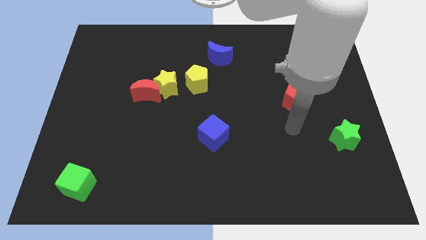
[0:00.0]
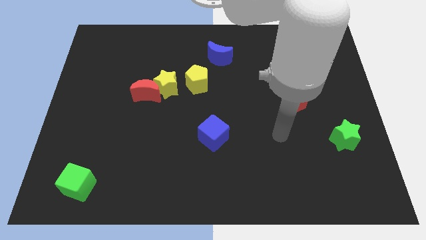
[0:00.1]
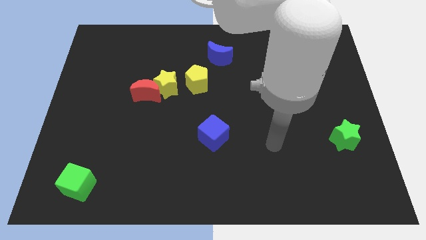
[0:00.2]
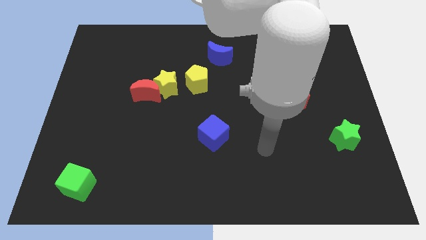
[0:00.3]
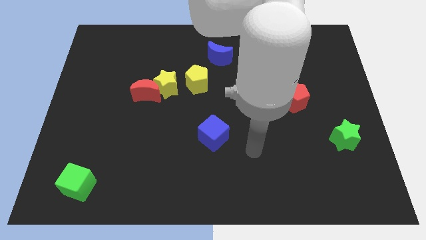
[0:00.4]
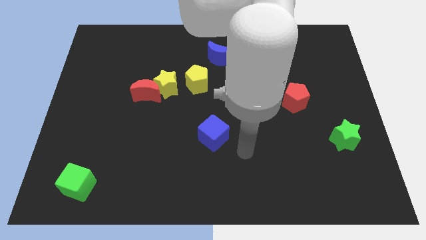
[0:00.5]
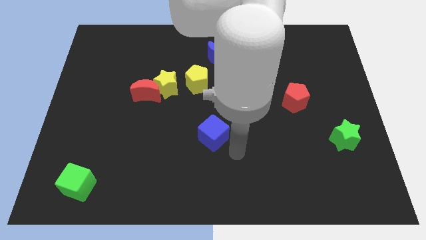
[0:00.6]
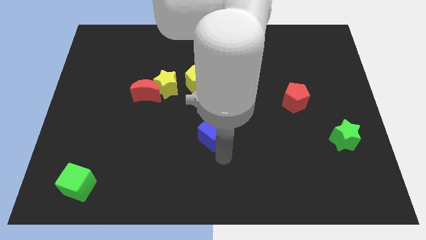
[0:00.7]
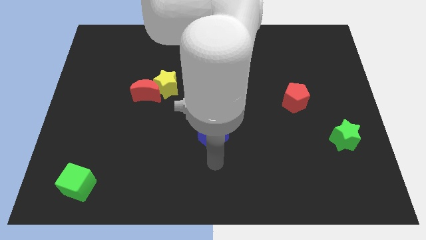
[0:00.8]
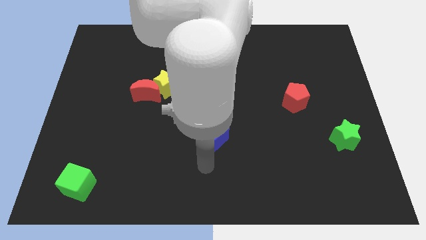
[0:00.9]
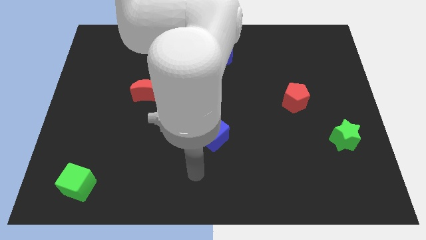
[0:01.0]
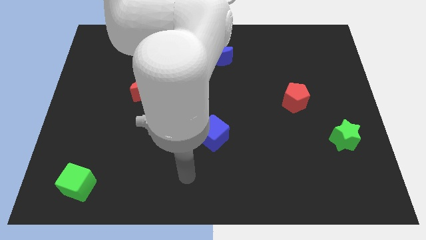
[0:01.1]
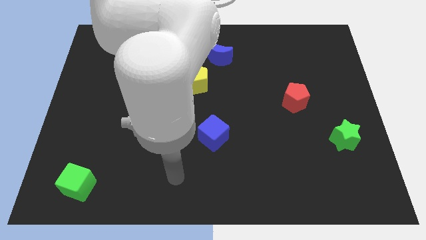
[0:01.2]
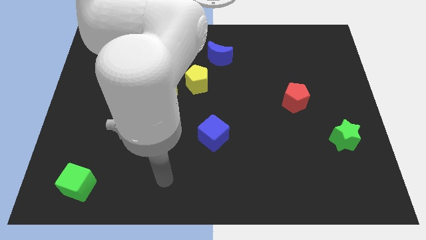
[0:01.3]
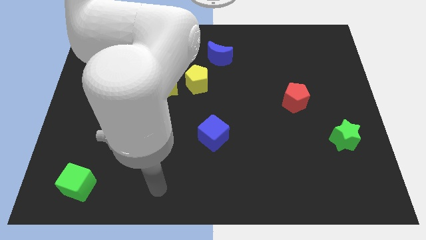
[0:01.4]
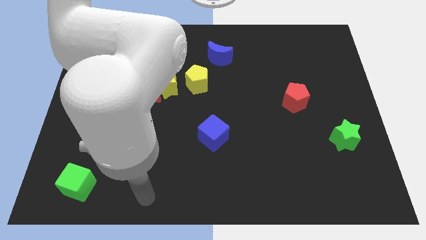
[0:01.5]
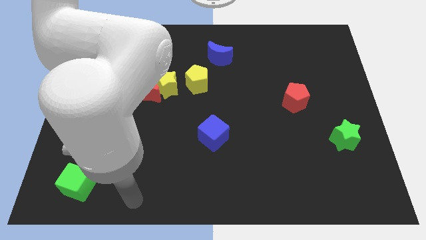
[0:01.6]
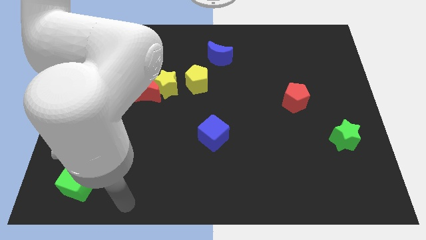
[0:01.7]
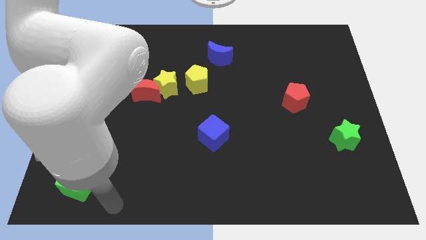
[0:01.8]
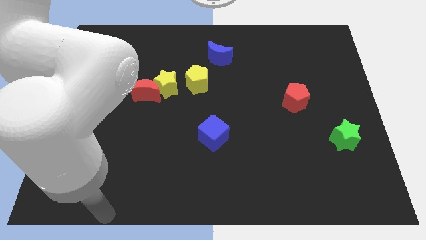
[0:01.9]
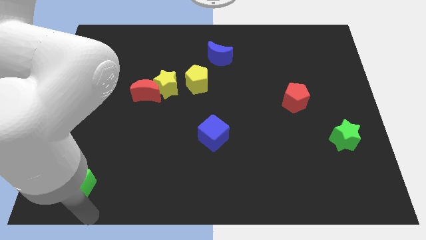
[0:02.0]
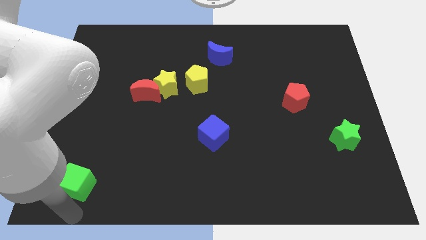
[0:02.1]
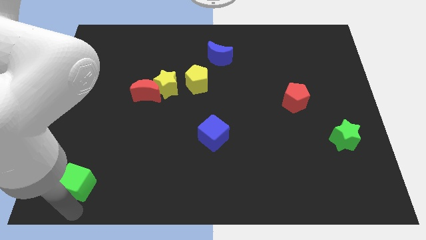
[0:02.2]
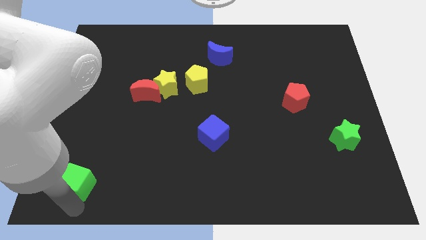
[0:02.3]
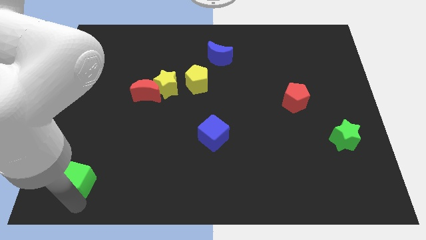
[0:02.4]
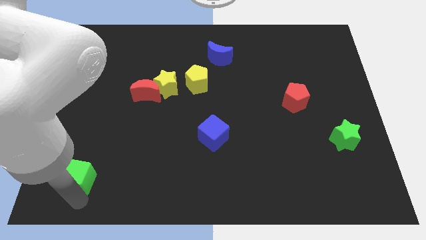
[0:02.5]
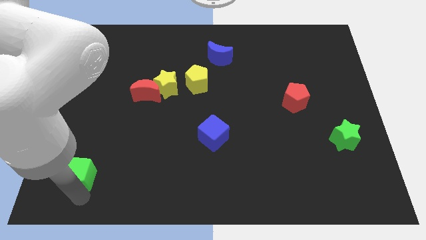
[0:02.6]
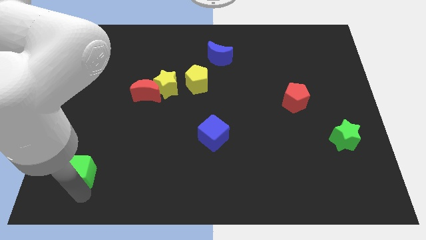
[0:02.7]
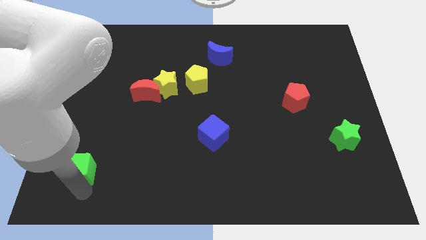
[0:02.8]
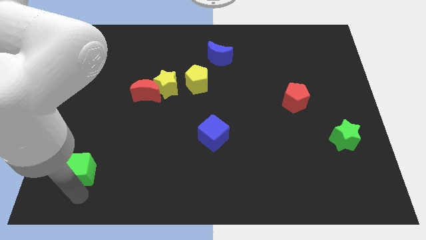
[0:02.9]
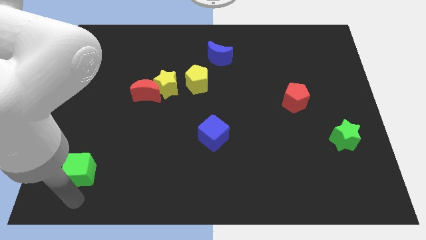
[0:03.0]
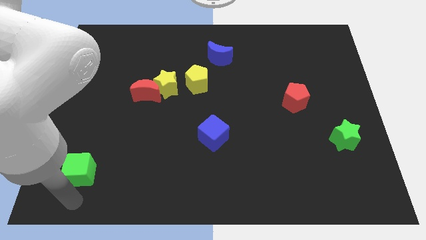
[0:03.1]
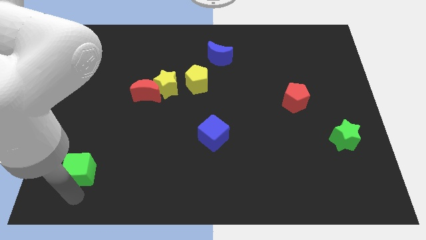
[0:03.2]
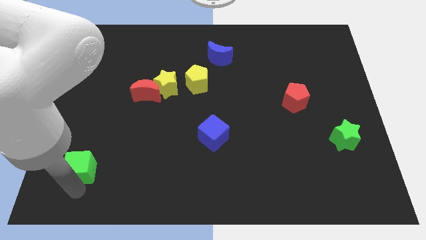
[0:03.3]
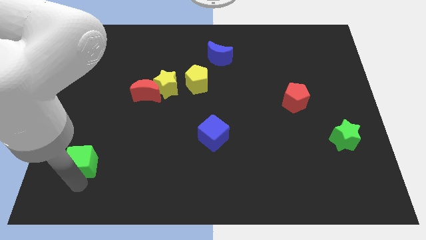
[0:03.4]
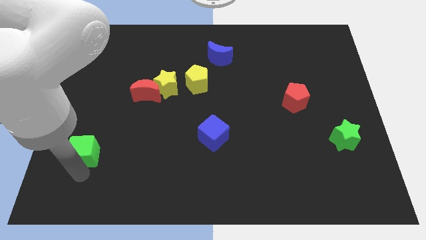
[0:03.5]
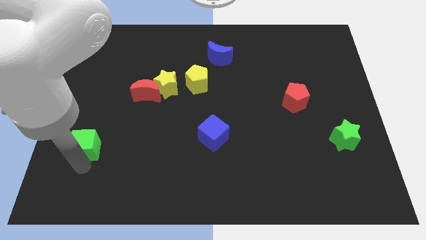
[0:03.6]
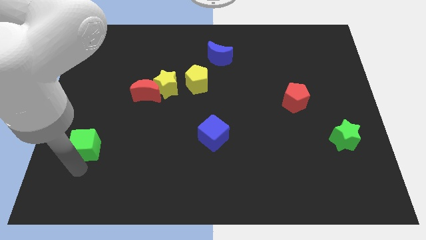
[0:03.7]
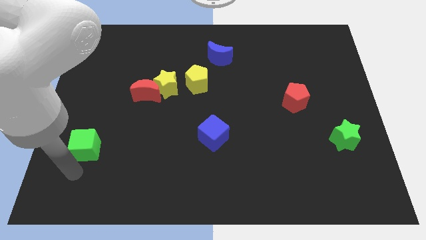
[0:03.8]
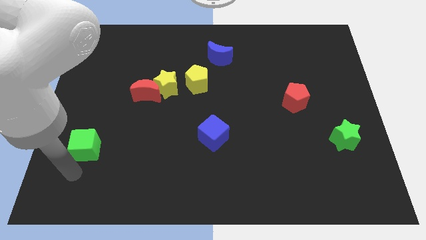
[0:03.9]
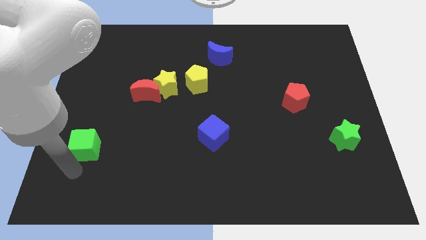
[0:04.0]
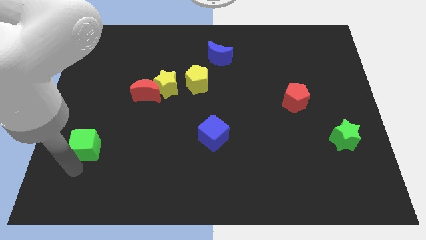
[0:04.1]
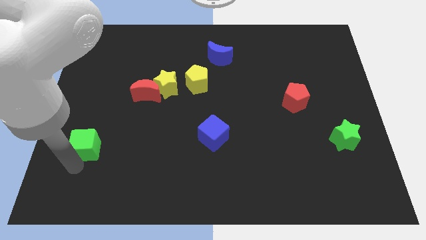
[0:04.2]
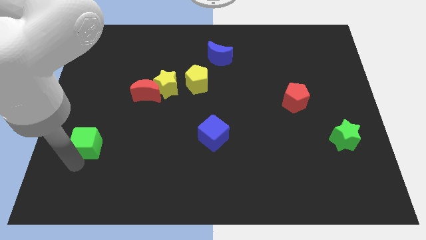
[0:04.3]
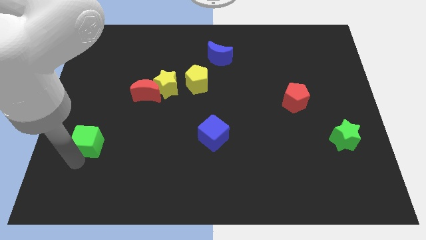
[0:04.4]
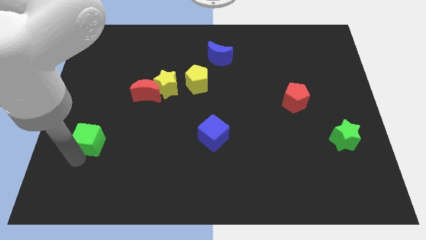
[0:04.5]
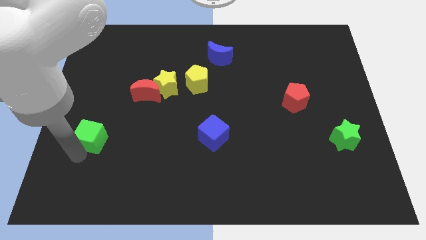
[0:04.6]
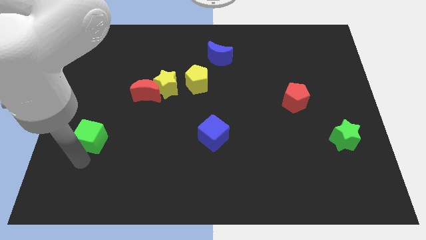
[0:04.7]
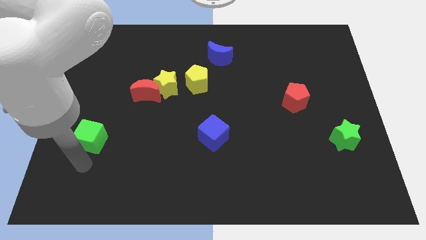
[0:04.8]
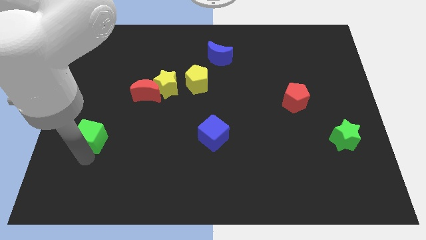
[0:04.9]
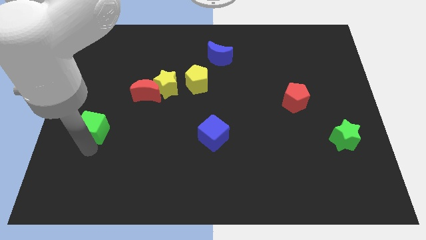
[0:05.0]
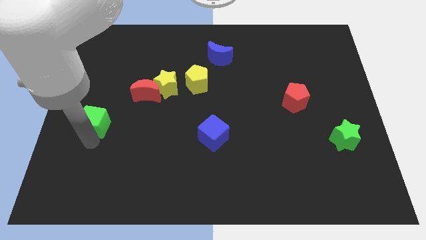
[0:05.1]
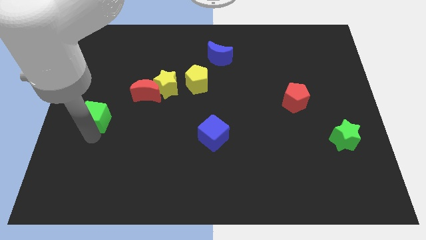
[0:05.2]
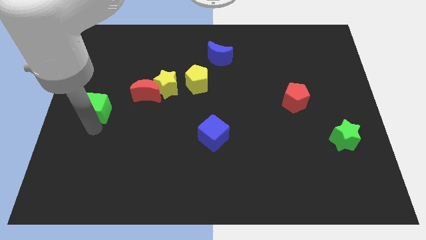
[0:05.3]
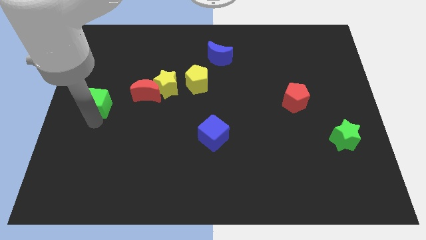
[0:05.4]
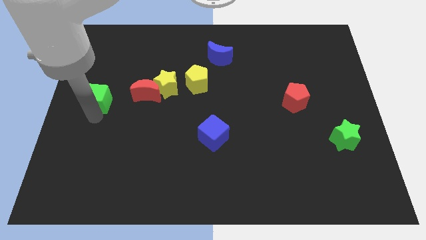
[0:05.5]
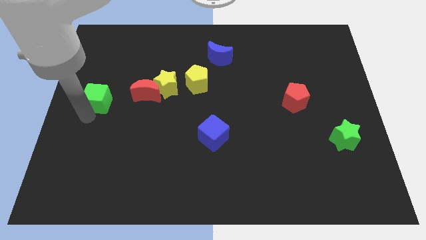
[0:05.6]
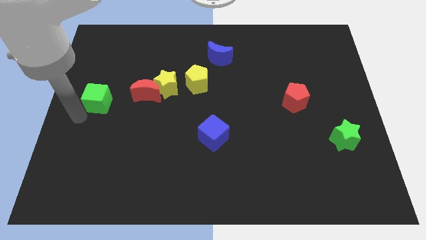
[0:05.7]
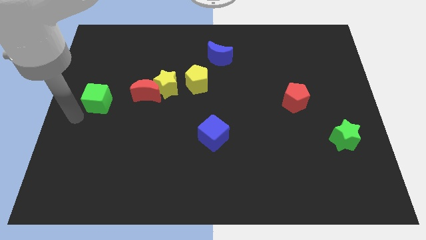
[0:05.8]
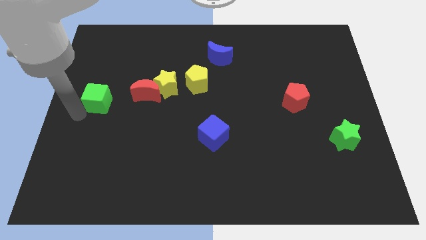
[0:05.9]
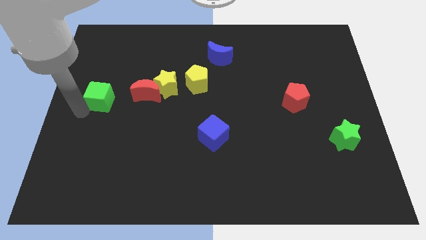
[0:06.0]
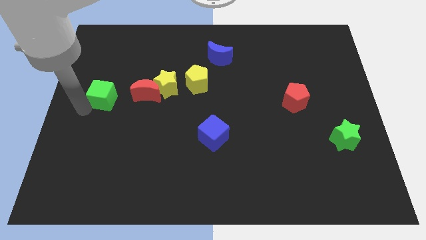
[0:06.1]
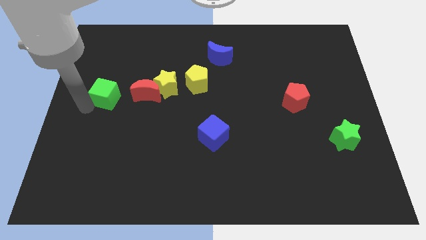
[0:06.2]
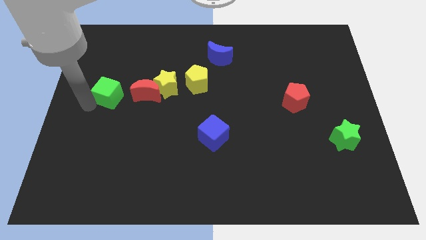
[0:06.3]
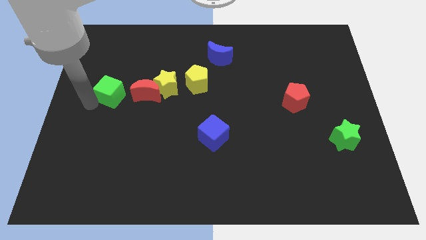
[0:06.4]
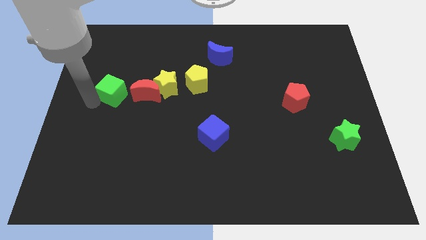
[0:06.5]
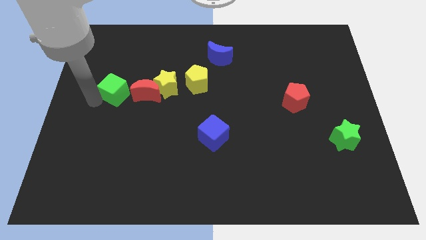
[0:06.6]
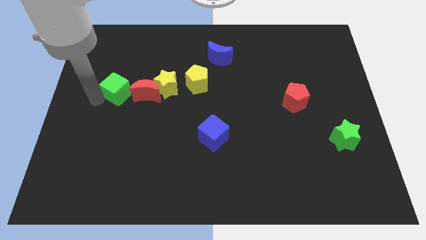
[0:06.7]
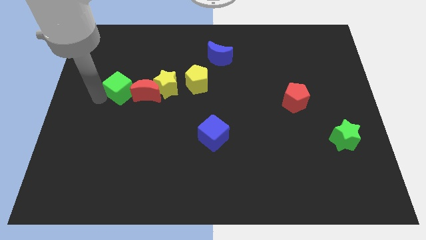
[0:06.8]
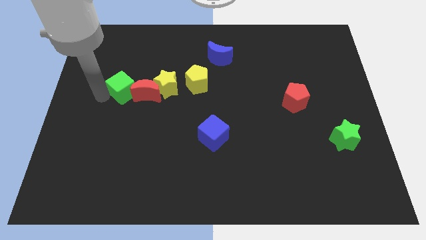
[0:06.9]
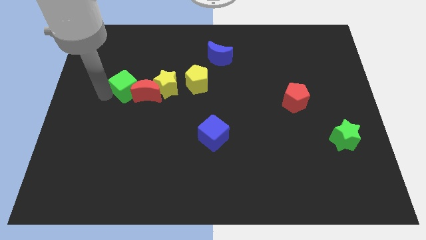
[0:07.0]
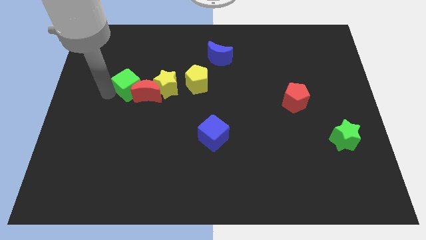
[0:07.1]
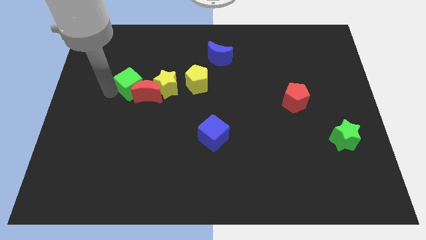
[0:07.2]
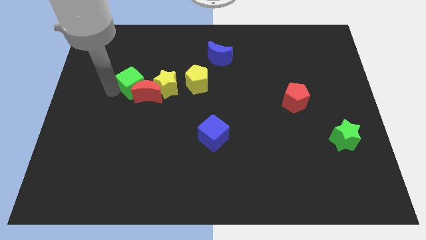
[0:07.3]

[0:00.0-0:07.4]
slide the green cube above the red moon
